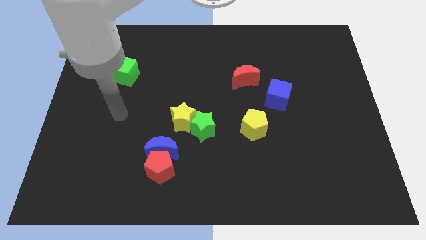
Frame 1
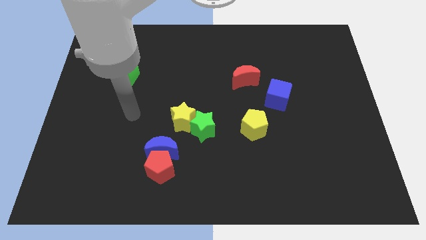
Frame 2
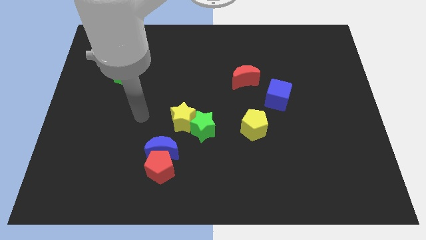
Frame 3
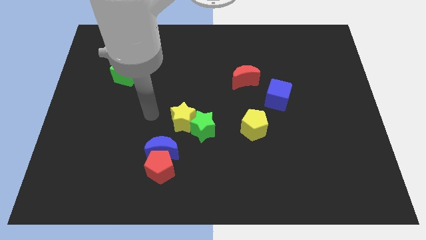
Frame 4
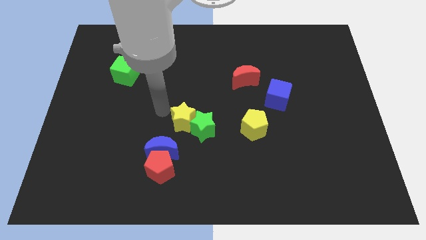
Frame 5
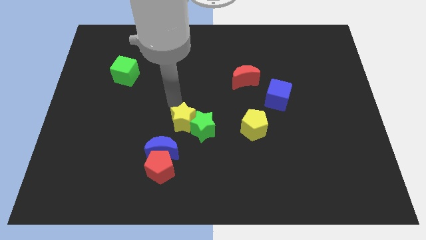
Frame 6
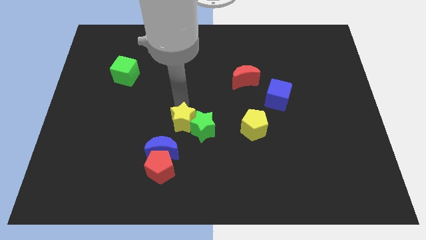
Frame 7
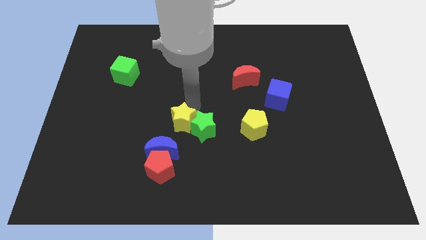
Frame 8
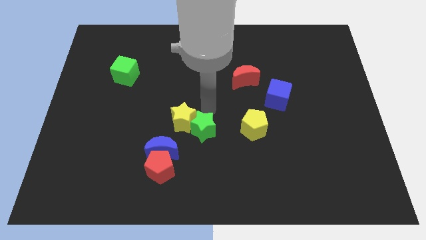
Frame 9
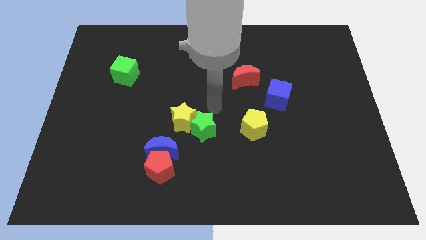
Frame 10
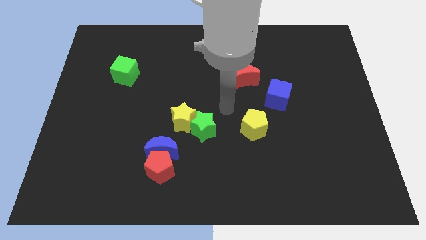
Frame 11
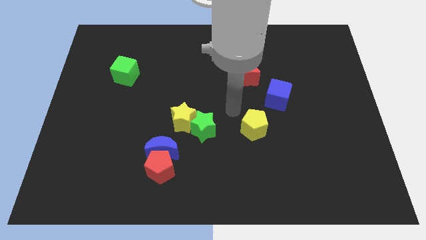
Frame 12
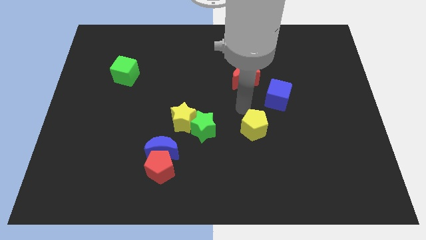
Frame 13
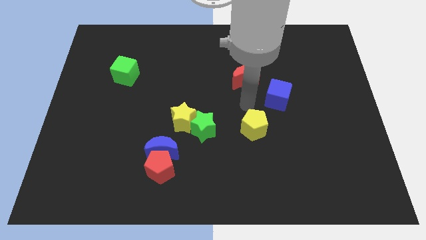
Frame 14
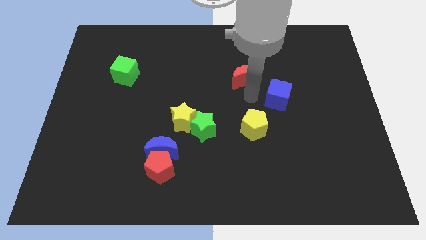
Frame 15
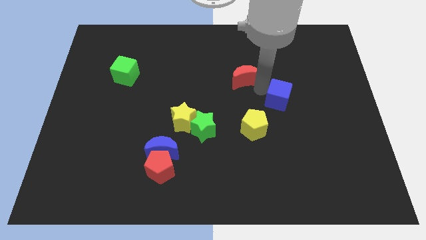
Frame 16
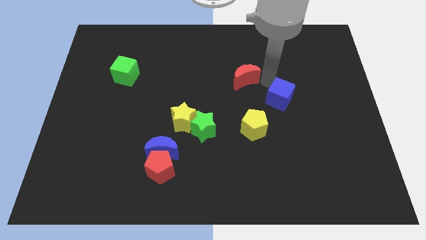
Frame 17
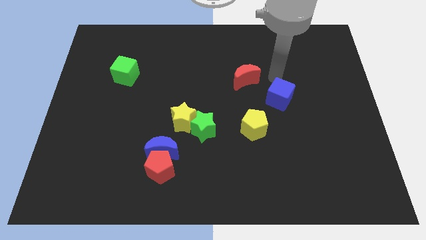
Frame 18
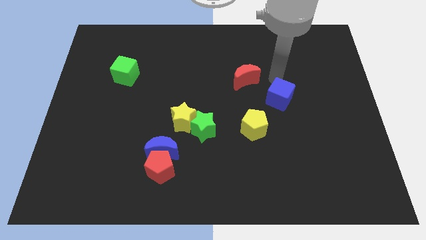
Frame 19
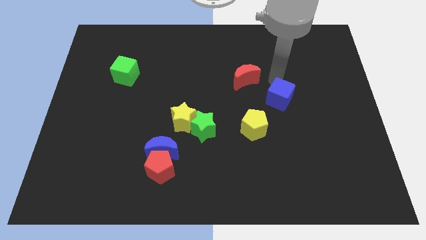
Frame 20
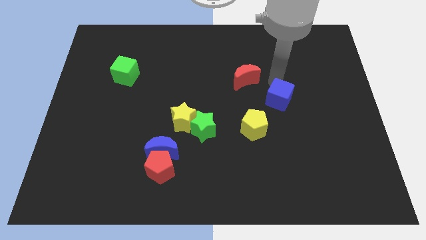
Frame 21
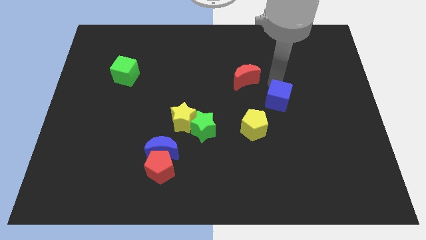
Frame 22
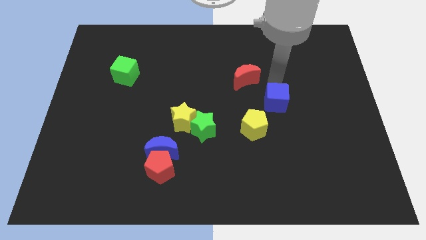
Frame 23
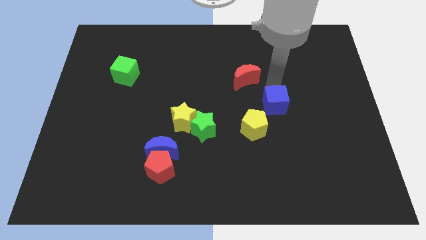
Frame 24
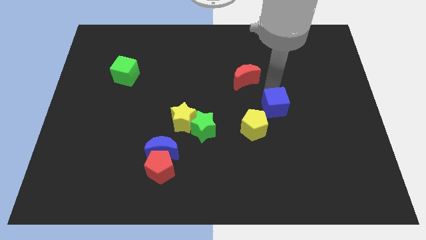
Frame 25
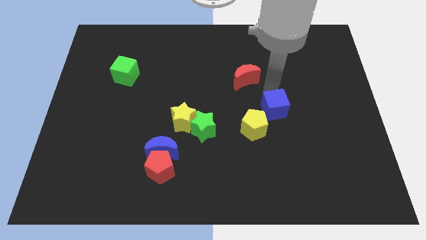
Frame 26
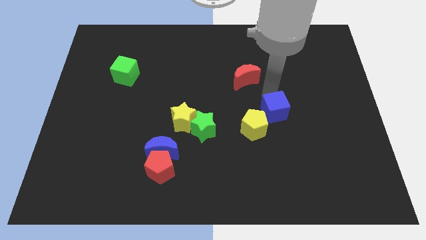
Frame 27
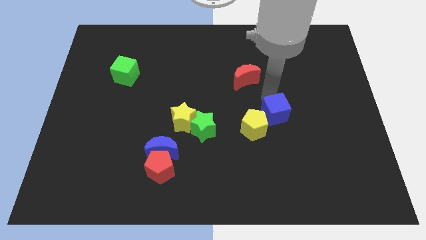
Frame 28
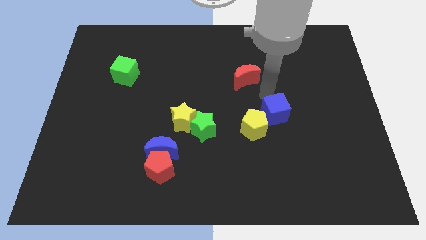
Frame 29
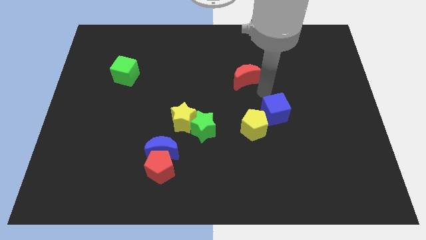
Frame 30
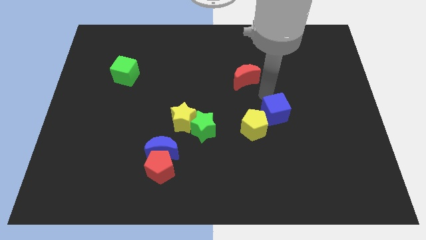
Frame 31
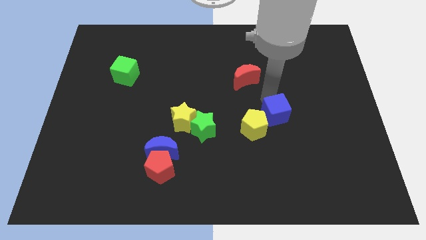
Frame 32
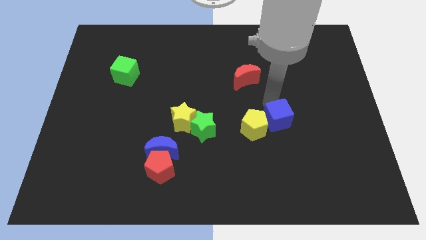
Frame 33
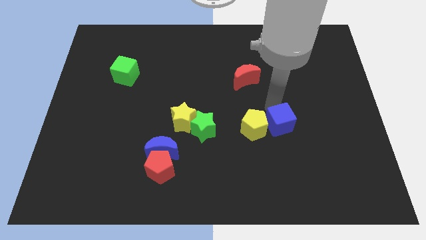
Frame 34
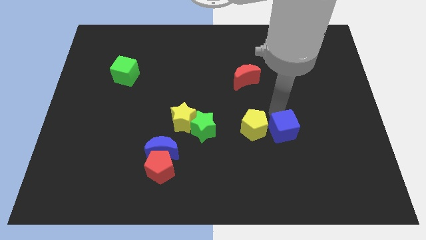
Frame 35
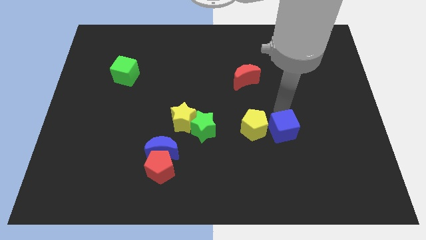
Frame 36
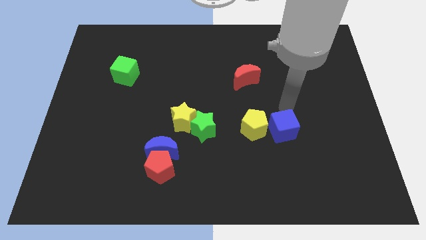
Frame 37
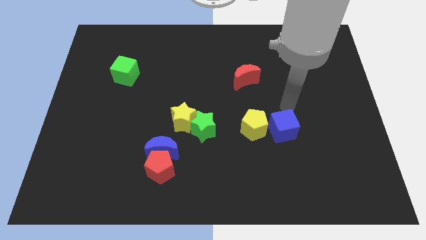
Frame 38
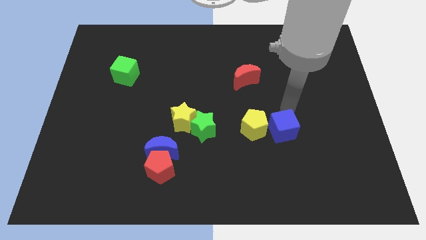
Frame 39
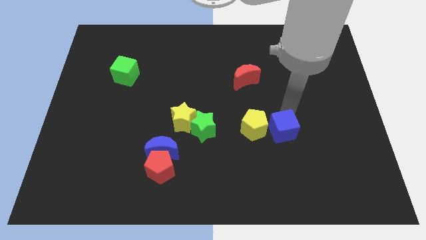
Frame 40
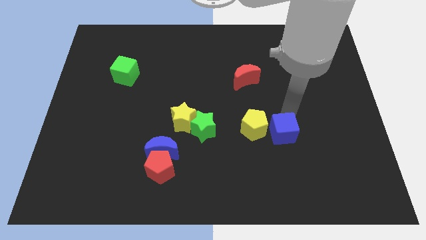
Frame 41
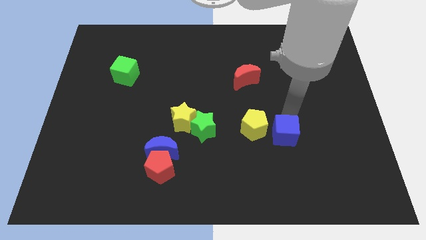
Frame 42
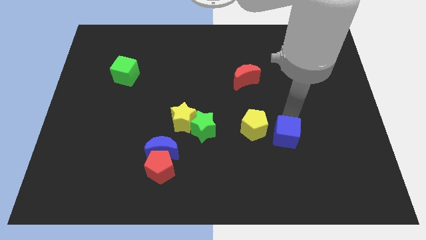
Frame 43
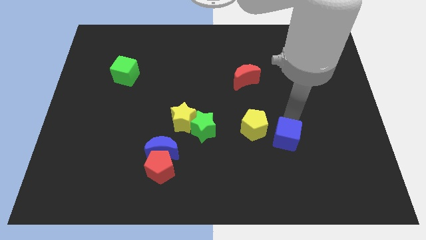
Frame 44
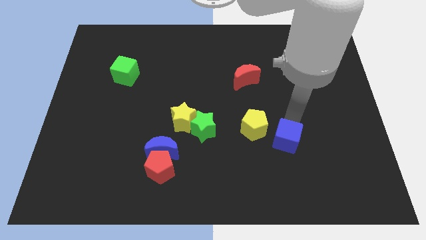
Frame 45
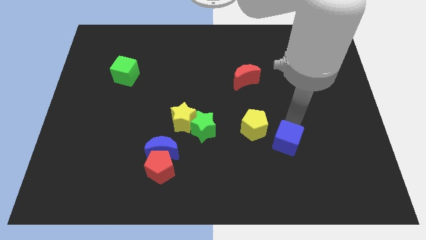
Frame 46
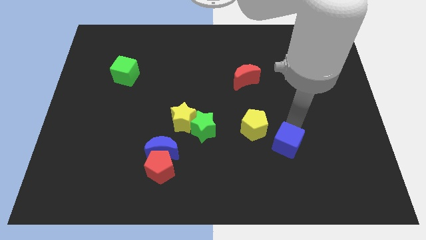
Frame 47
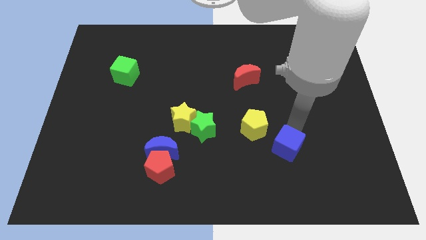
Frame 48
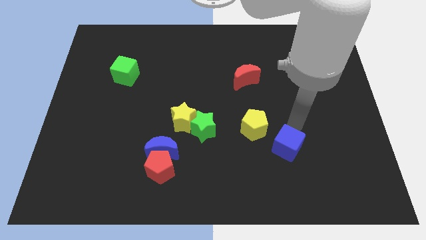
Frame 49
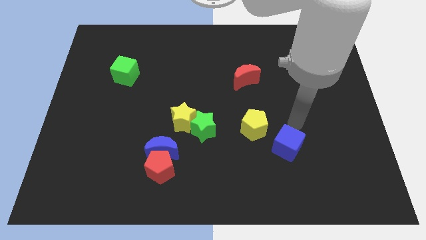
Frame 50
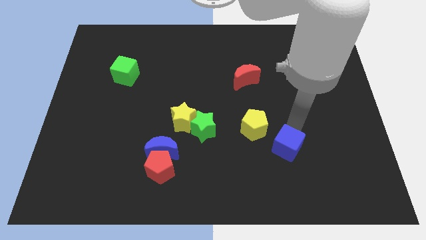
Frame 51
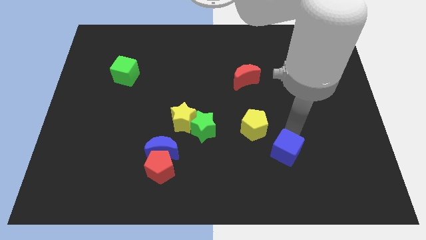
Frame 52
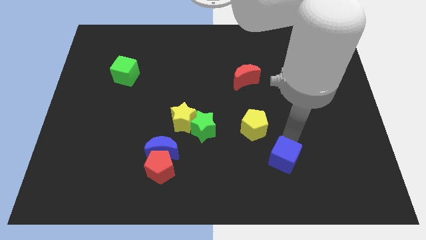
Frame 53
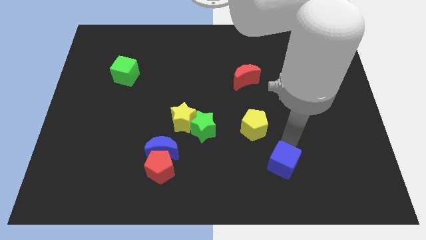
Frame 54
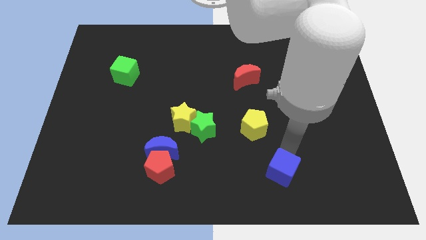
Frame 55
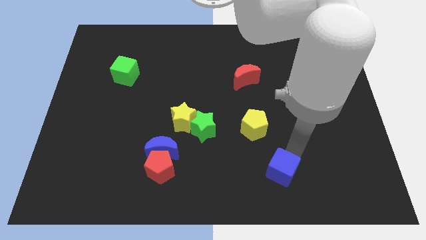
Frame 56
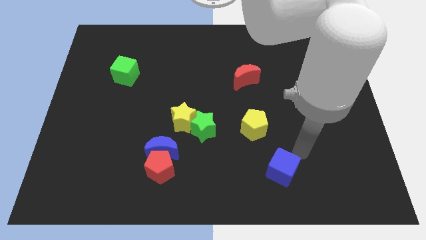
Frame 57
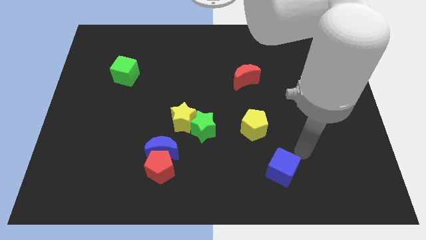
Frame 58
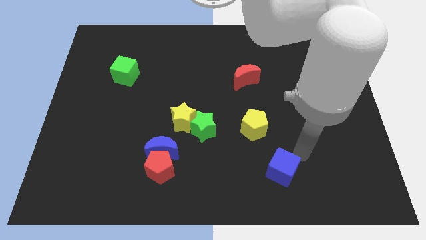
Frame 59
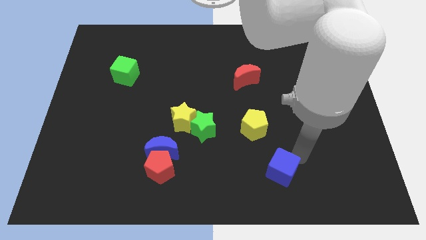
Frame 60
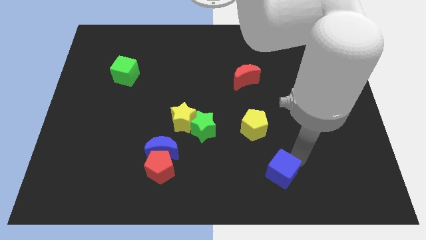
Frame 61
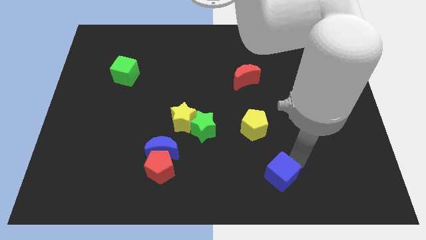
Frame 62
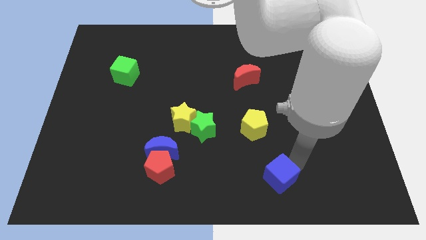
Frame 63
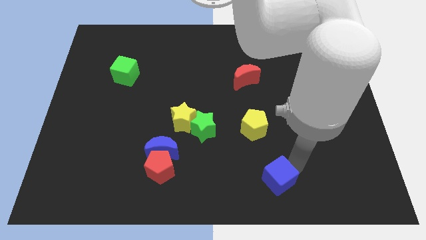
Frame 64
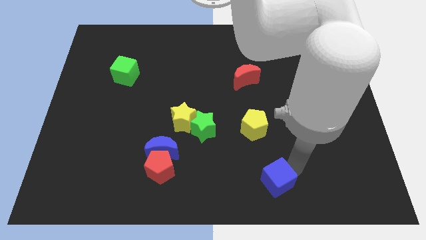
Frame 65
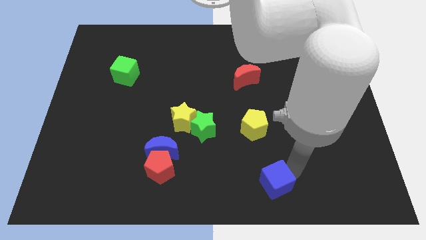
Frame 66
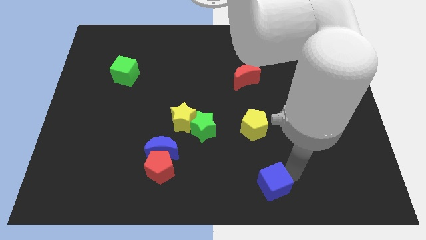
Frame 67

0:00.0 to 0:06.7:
move the blue cube to the bottom side
